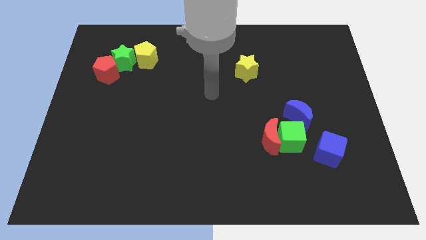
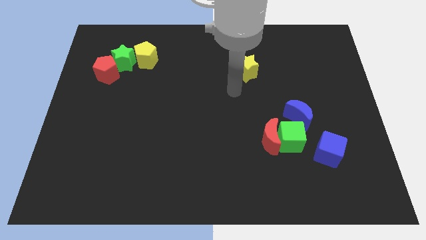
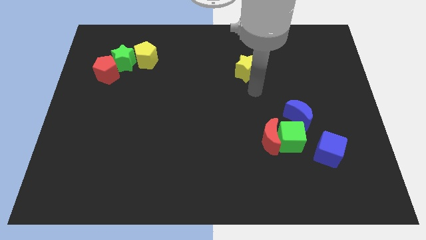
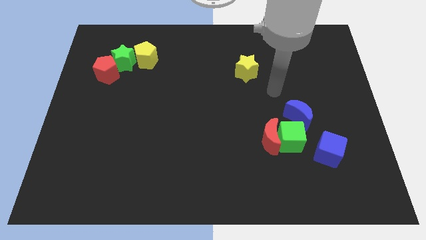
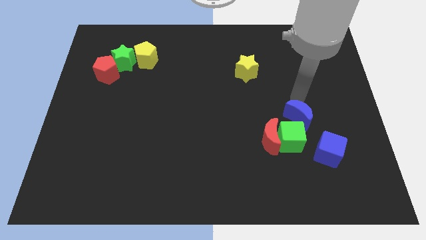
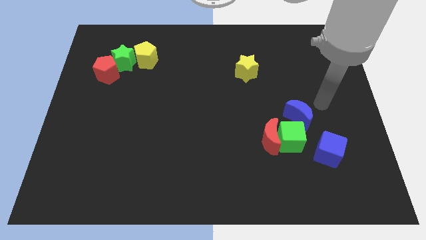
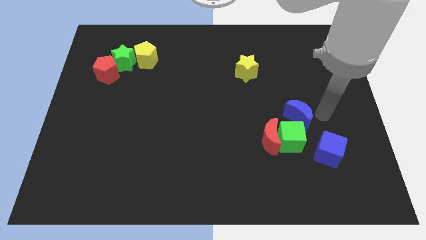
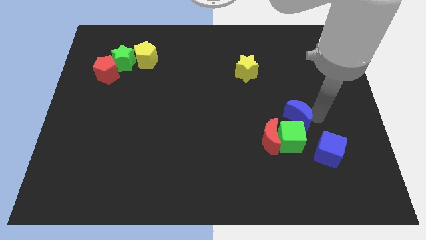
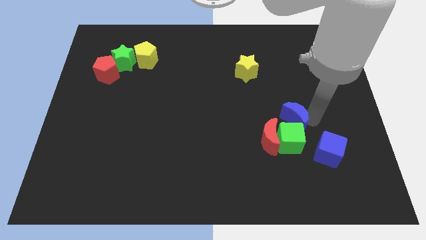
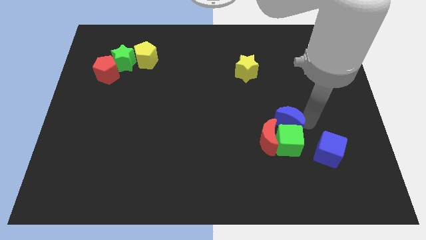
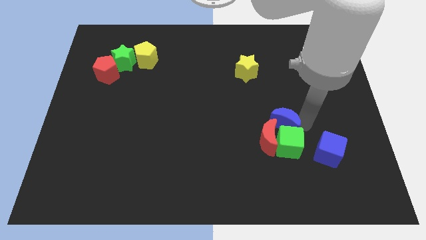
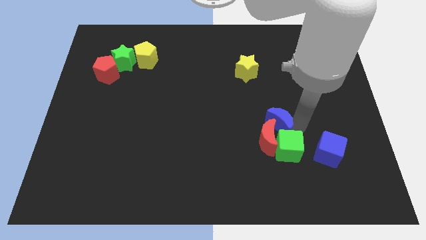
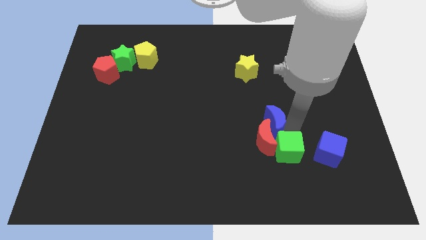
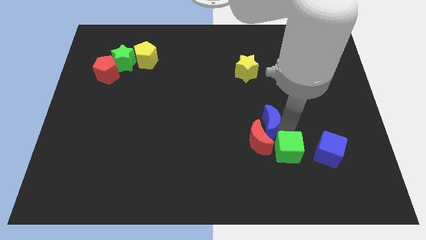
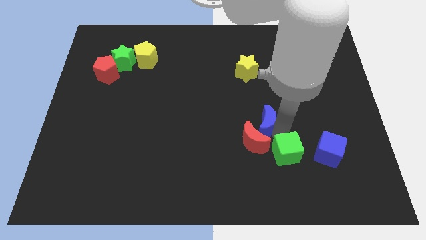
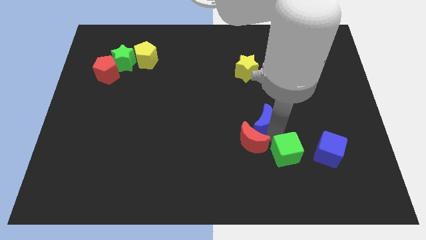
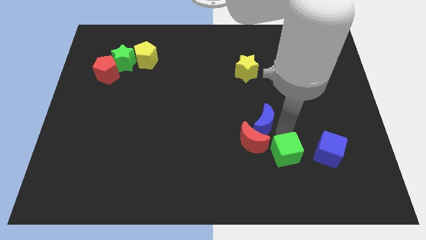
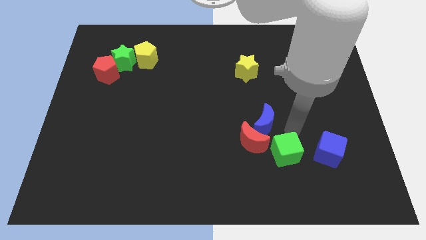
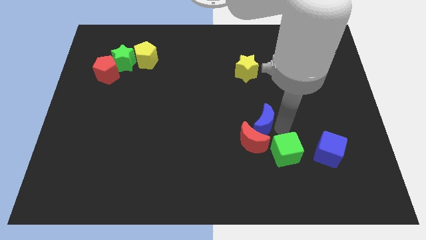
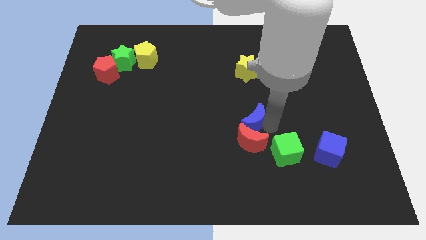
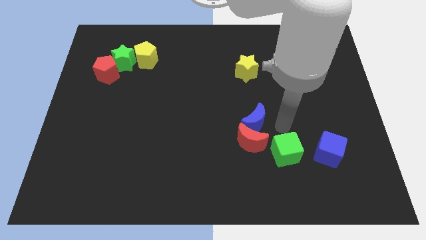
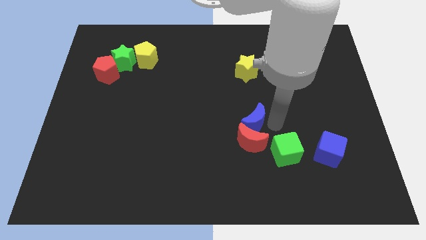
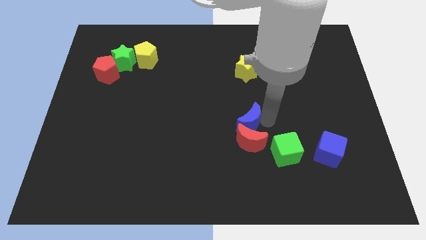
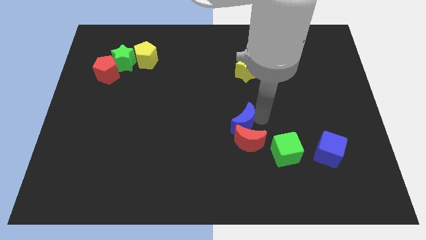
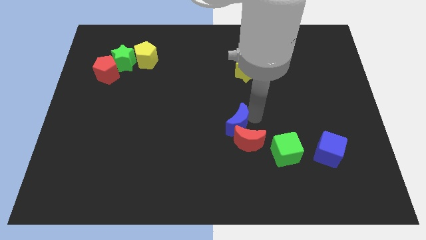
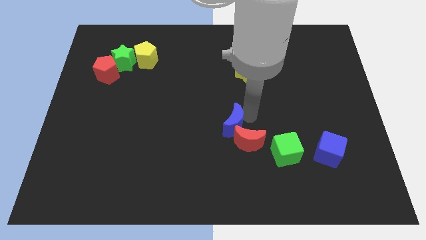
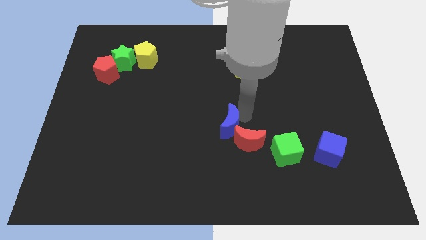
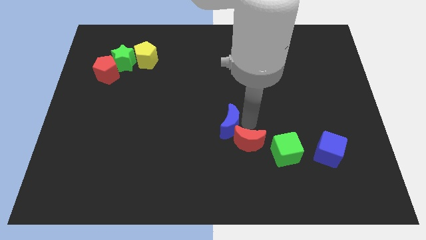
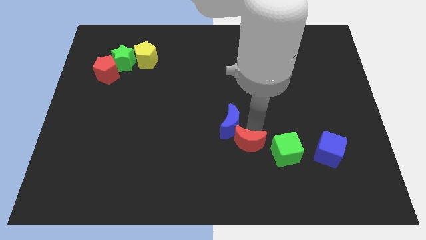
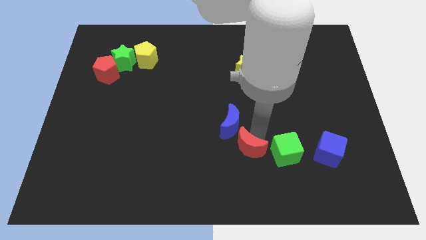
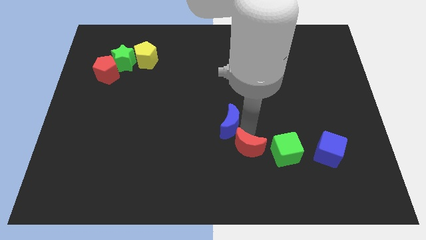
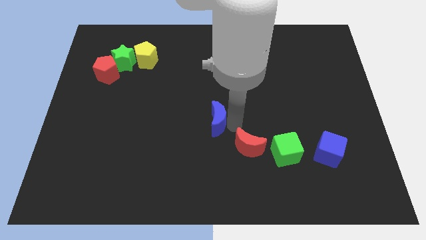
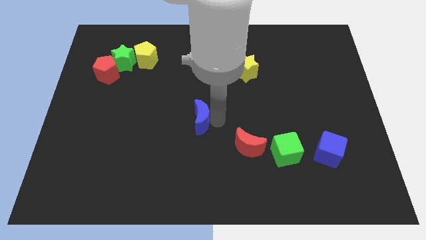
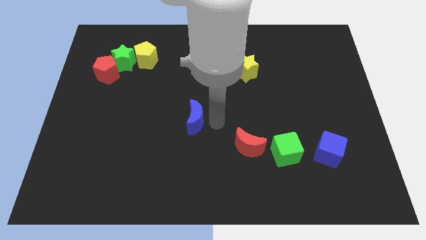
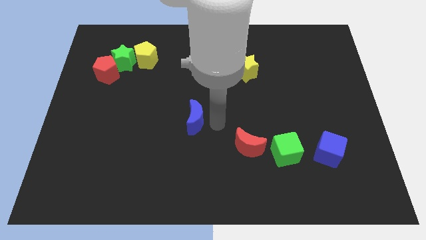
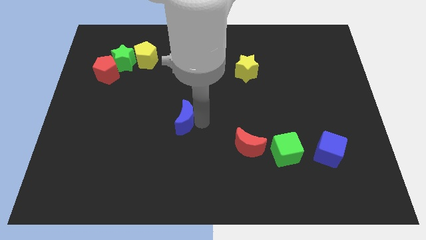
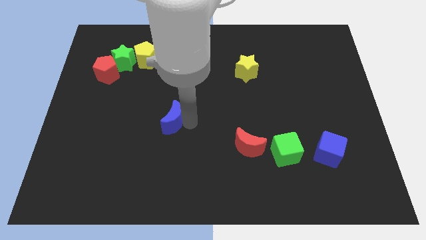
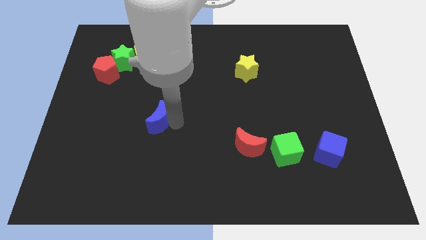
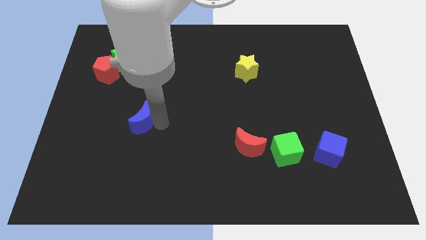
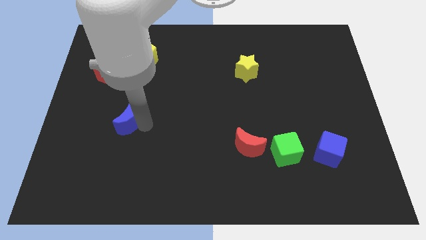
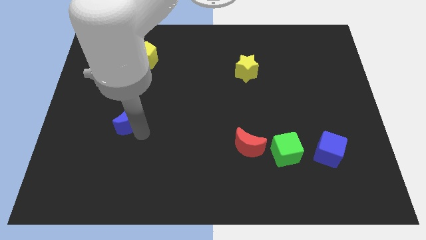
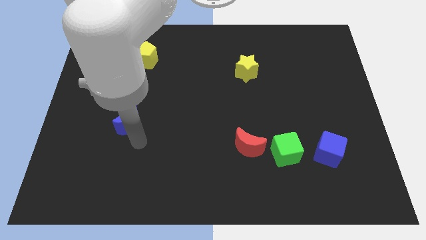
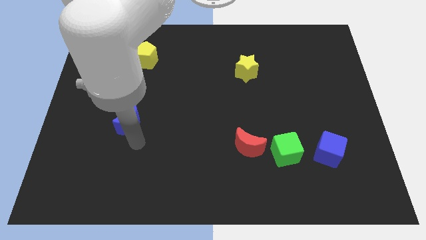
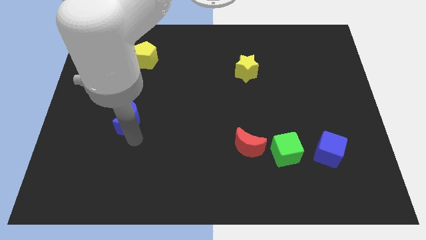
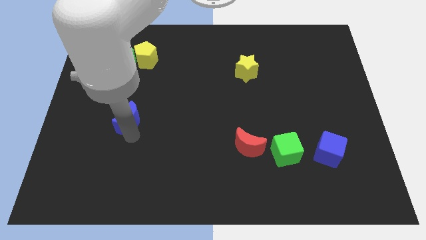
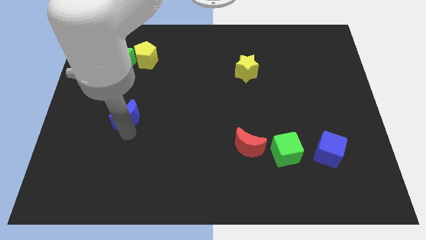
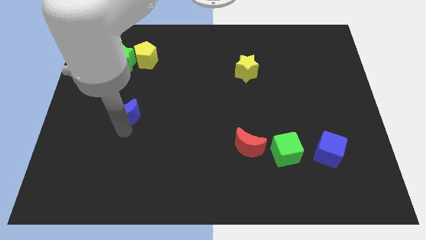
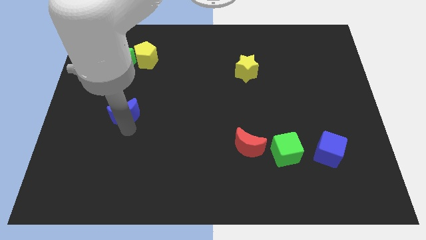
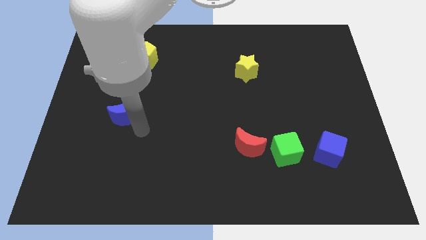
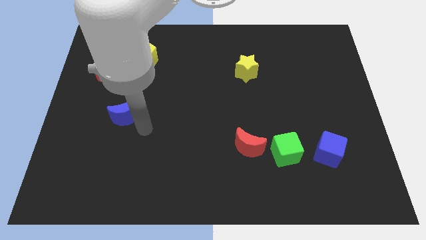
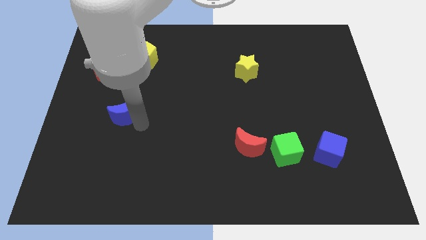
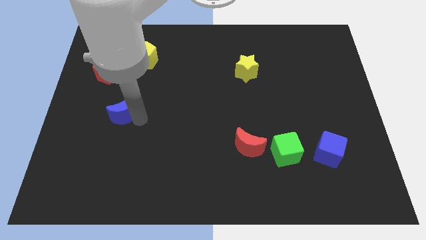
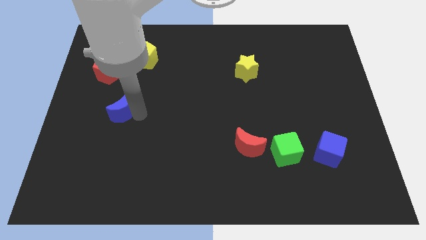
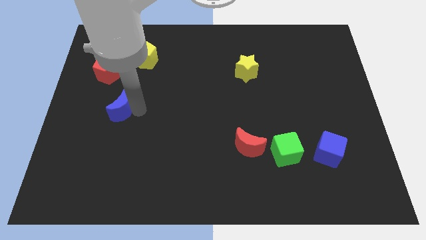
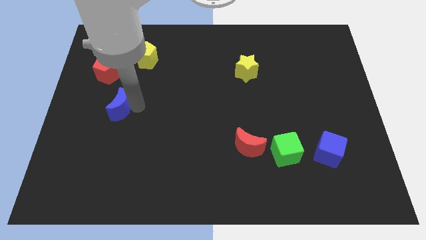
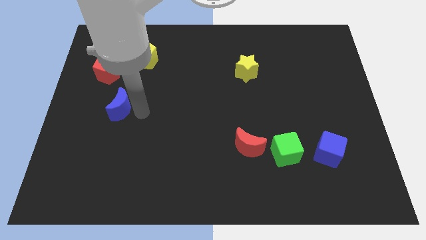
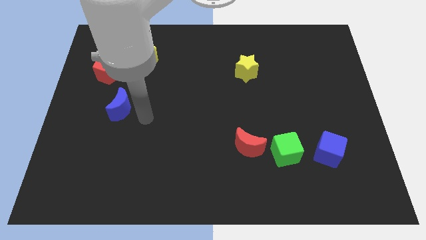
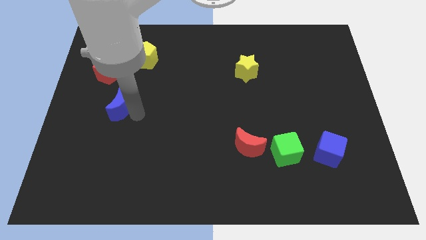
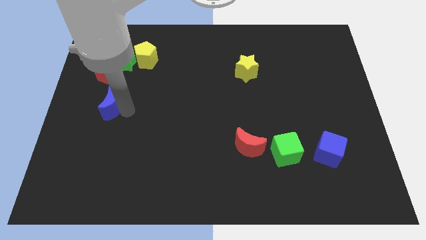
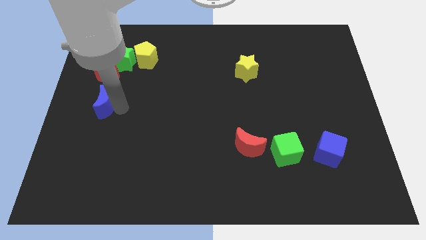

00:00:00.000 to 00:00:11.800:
move the blue moon to the center left

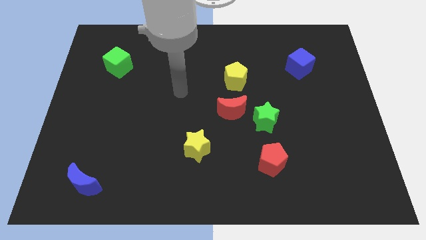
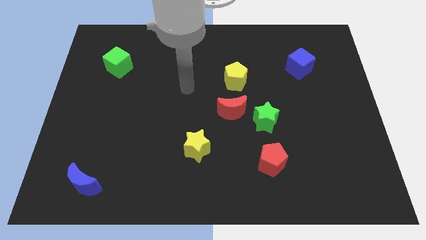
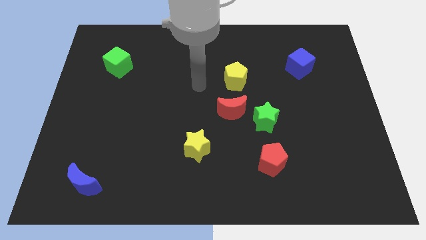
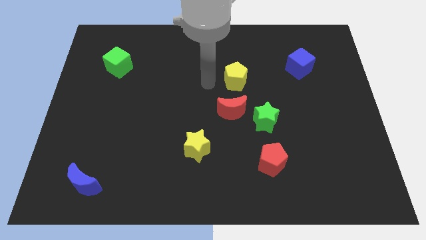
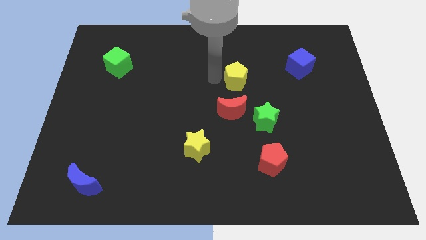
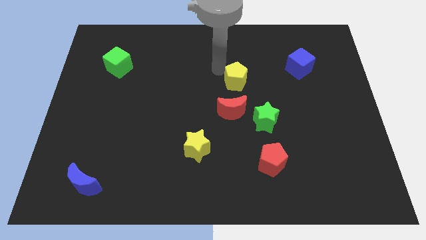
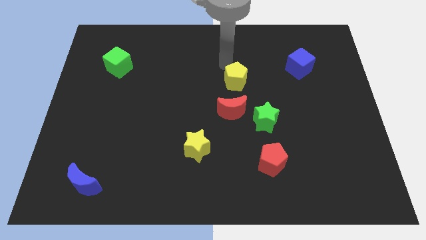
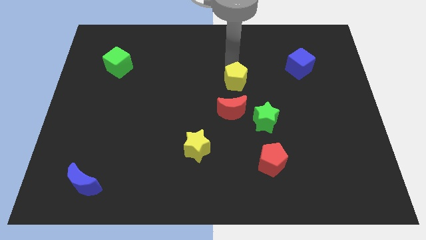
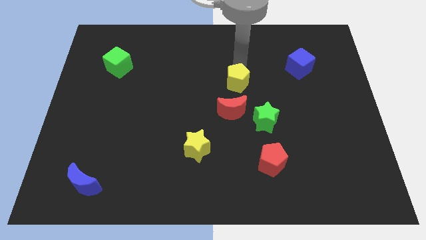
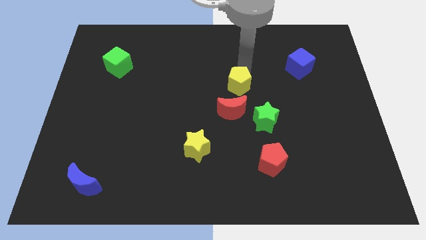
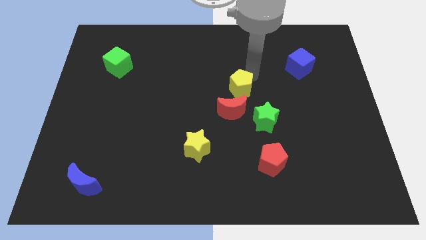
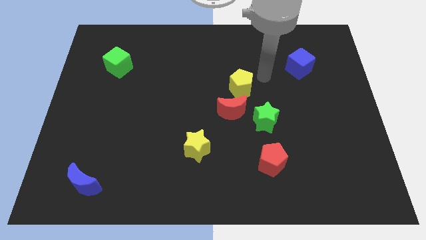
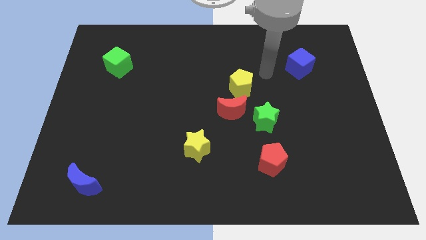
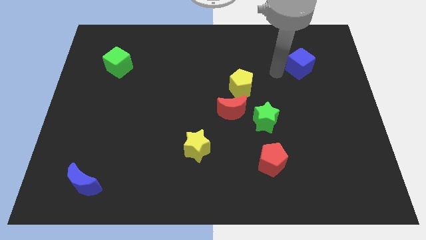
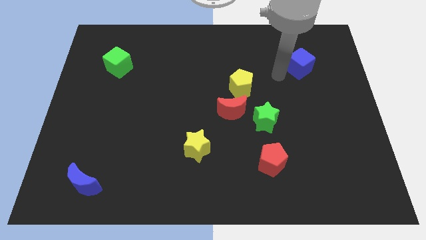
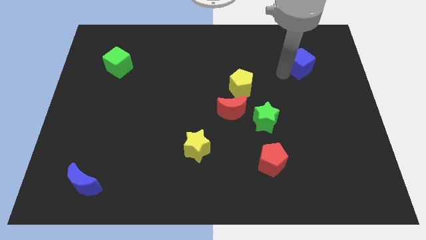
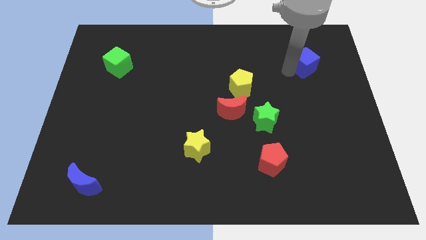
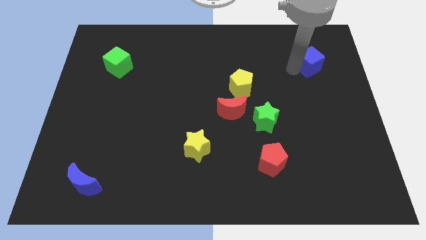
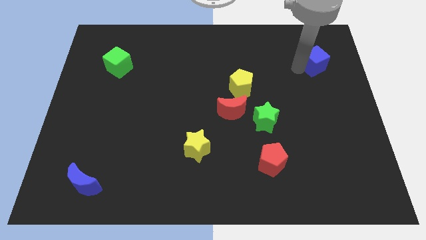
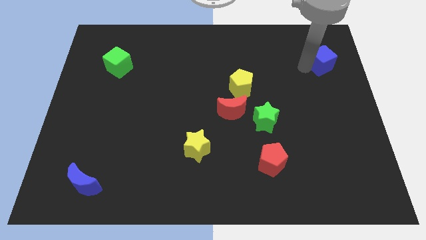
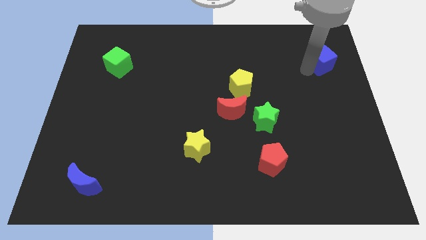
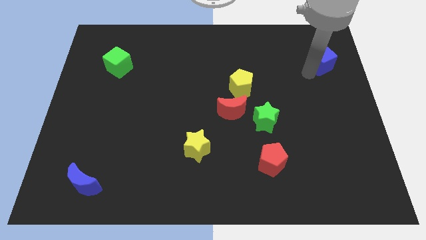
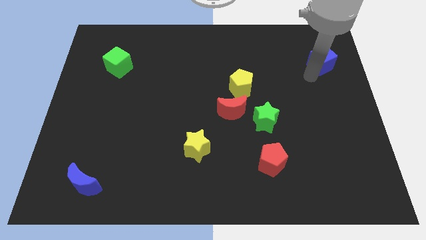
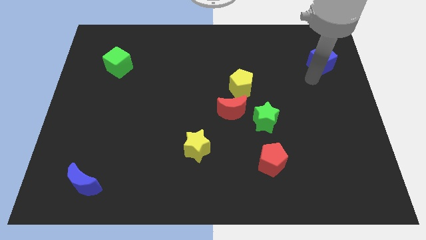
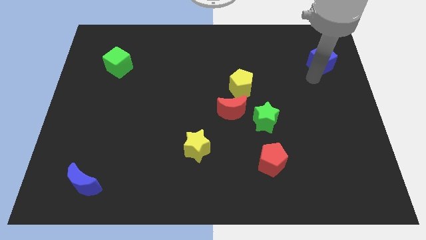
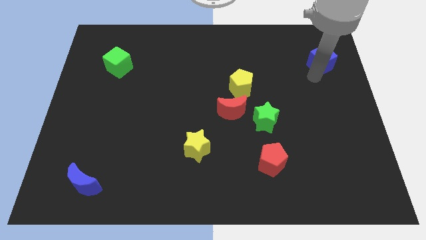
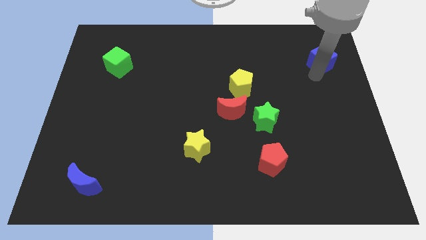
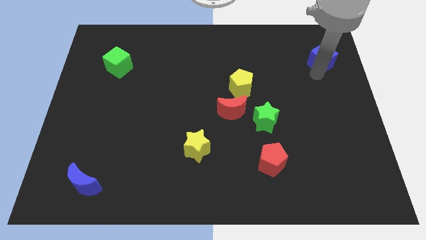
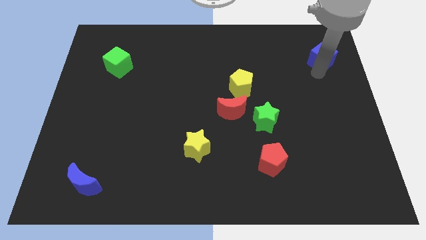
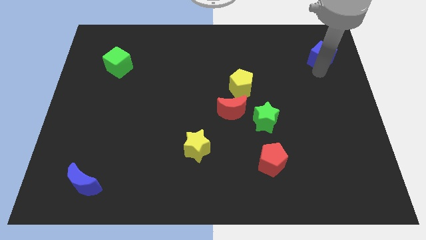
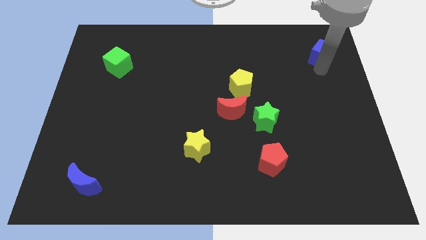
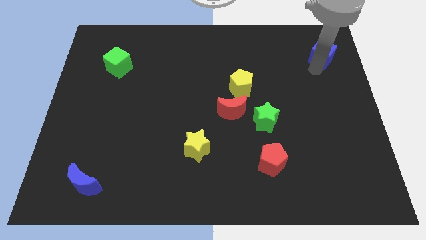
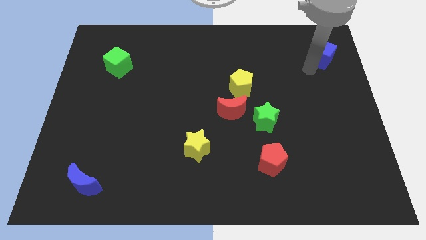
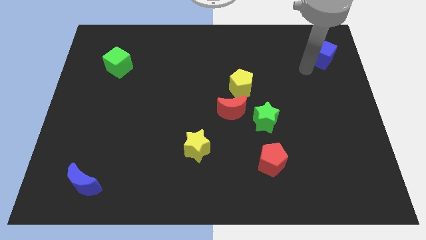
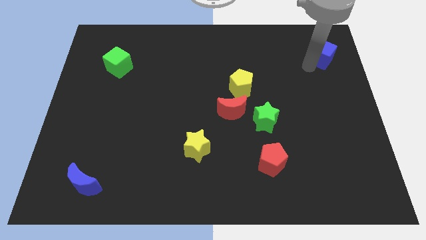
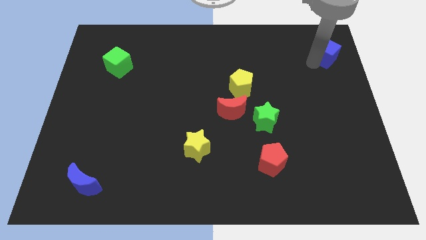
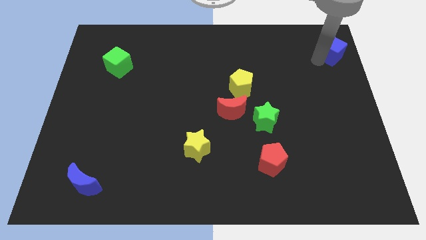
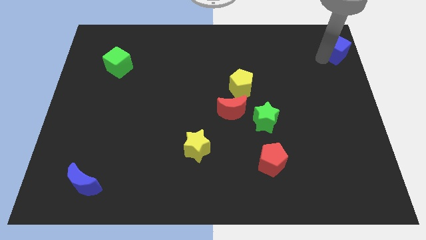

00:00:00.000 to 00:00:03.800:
push the blue cube to the upper right corner
